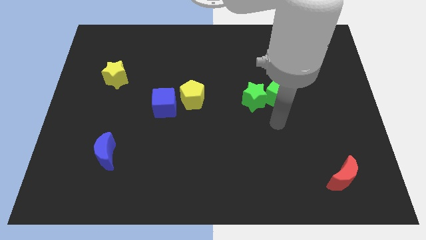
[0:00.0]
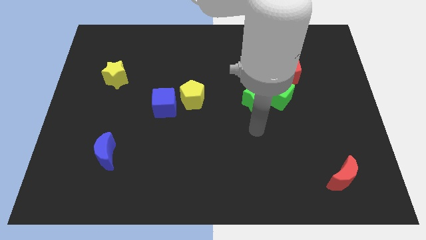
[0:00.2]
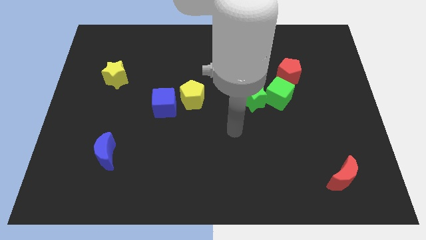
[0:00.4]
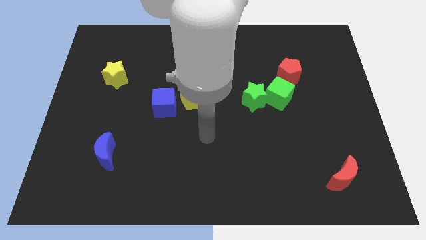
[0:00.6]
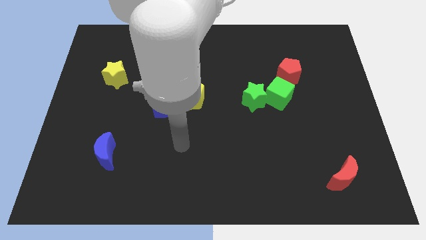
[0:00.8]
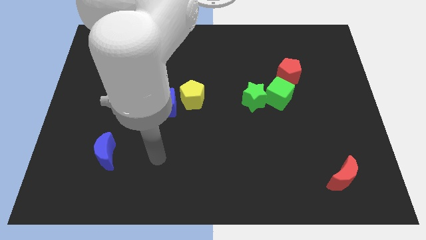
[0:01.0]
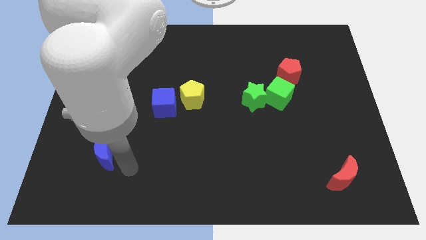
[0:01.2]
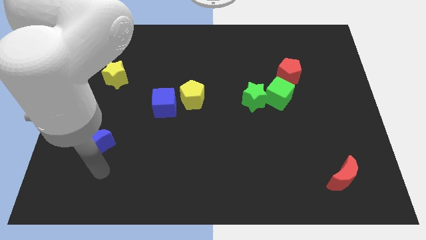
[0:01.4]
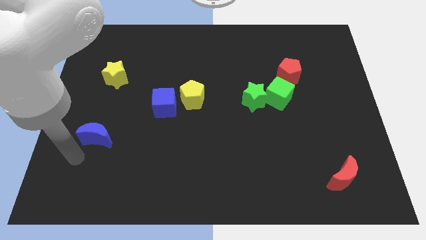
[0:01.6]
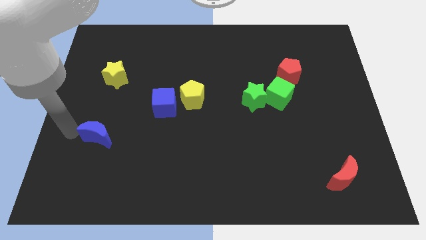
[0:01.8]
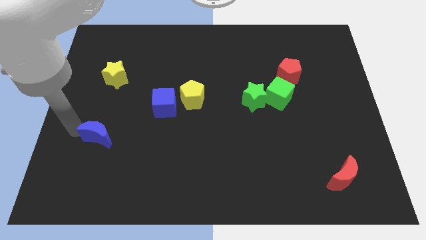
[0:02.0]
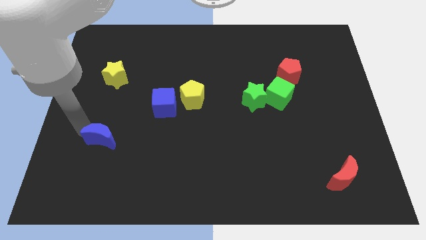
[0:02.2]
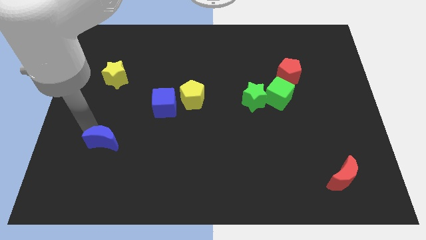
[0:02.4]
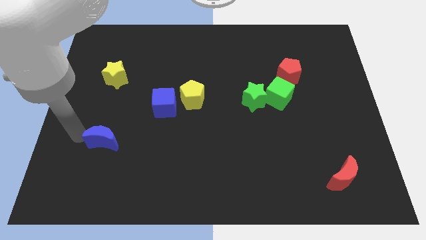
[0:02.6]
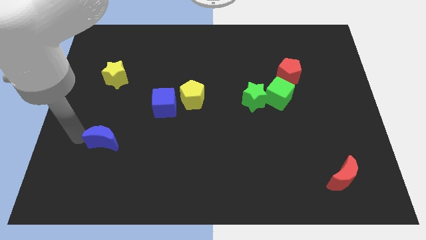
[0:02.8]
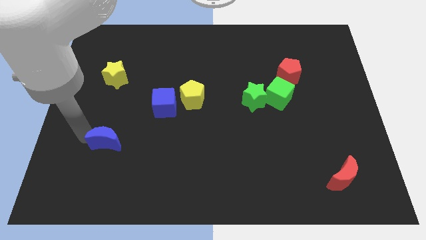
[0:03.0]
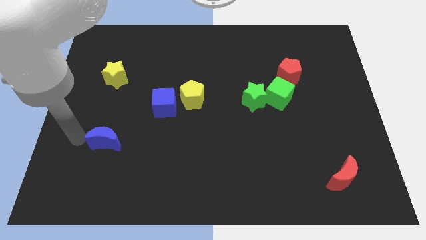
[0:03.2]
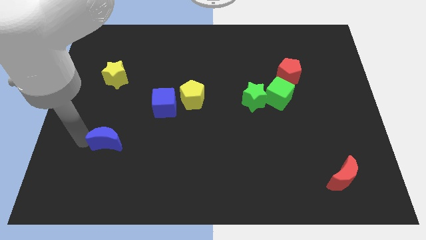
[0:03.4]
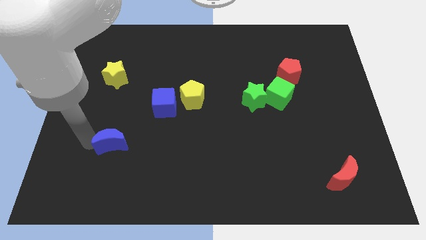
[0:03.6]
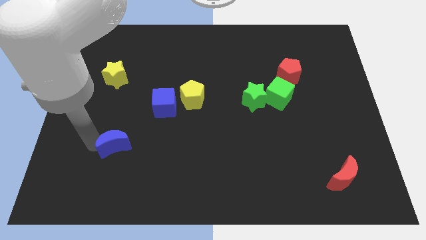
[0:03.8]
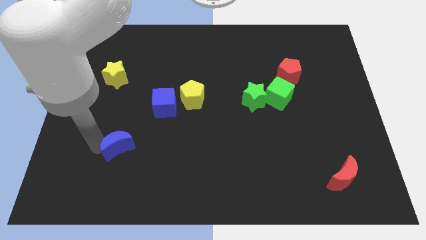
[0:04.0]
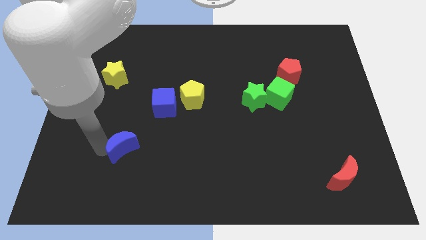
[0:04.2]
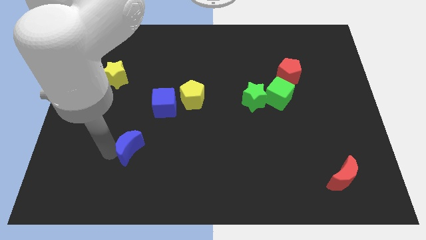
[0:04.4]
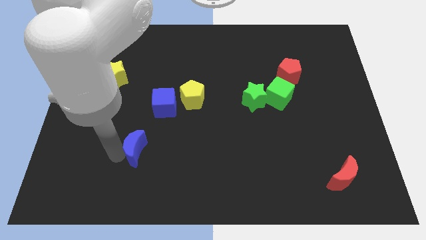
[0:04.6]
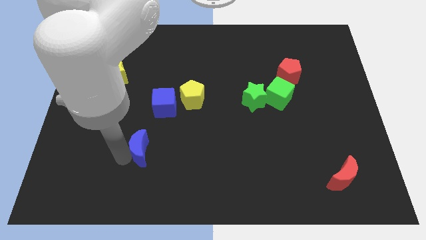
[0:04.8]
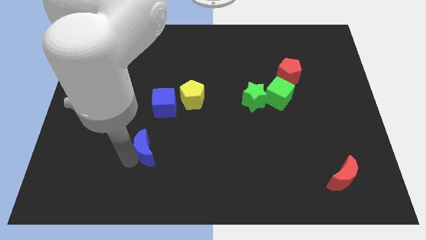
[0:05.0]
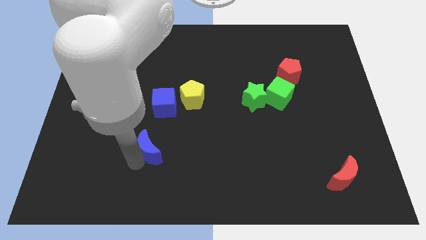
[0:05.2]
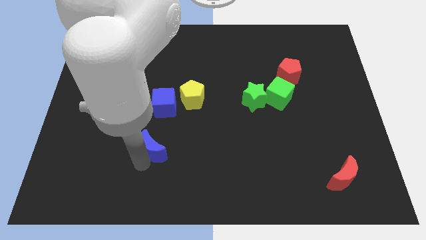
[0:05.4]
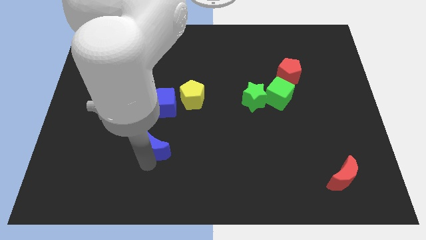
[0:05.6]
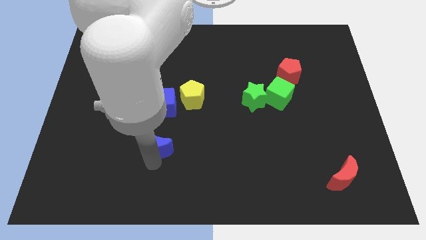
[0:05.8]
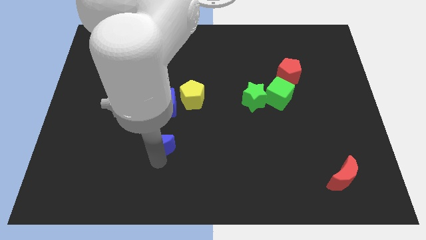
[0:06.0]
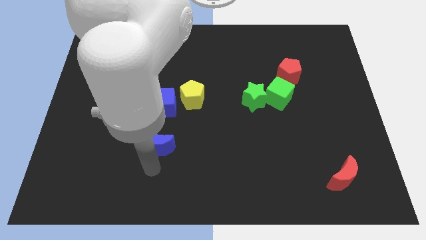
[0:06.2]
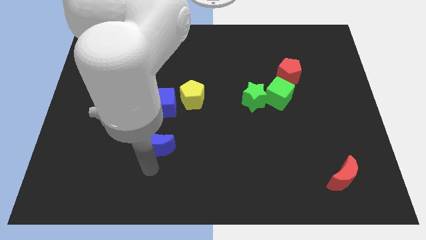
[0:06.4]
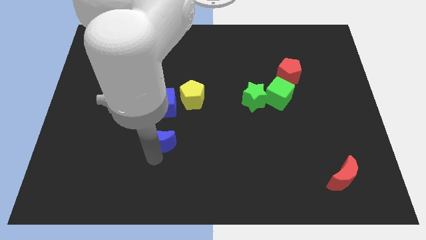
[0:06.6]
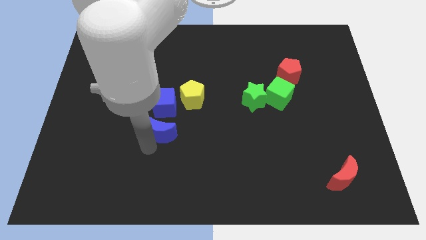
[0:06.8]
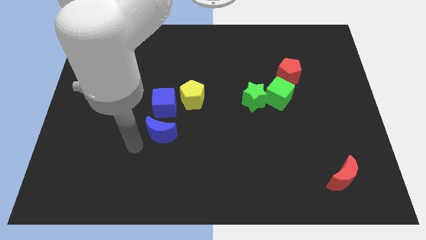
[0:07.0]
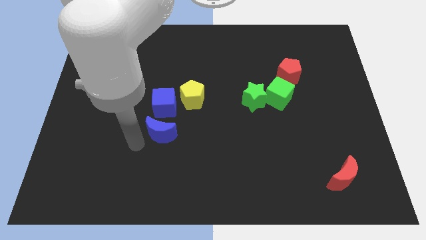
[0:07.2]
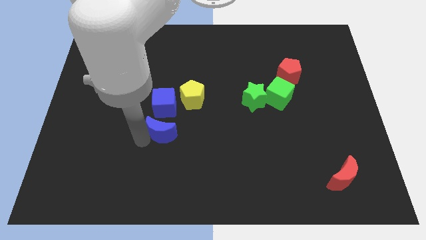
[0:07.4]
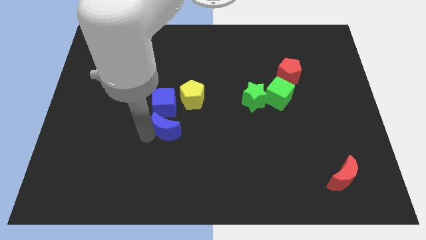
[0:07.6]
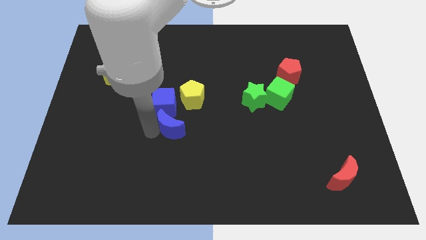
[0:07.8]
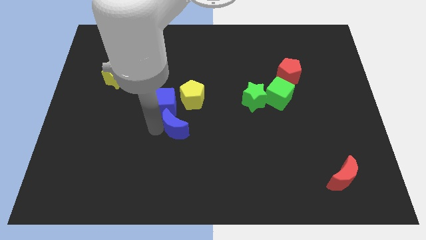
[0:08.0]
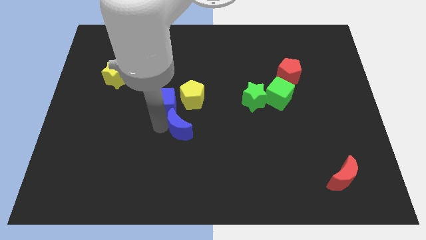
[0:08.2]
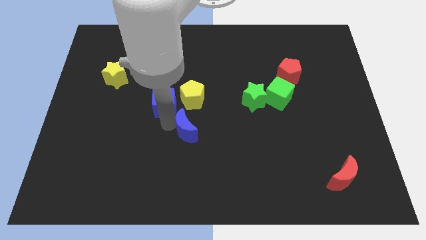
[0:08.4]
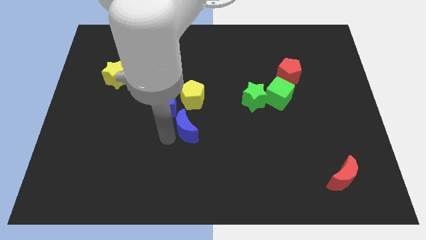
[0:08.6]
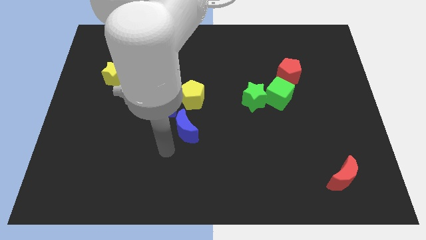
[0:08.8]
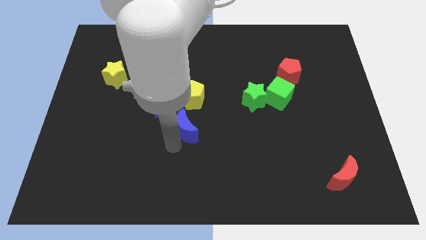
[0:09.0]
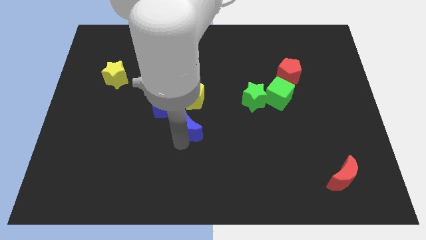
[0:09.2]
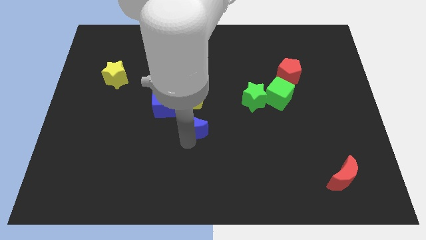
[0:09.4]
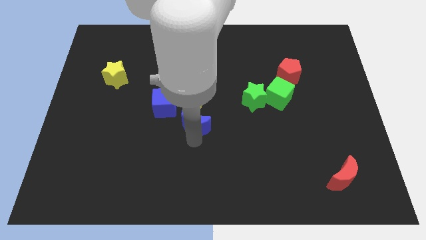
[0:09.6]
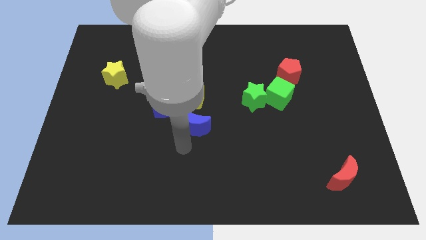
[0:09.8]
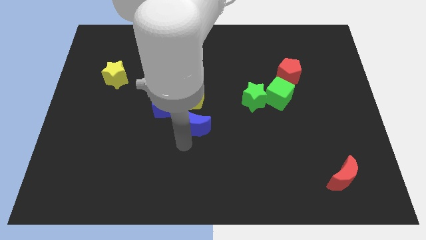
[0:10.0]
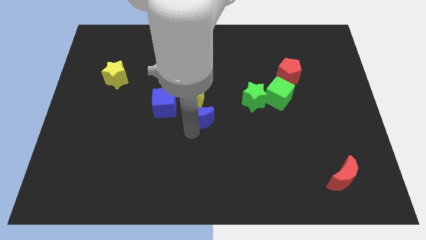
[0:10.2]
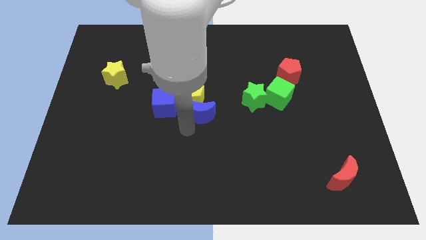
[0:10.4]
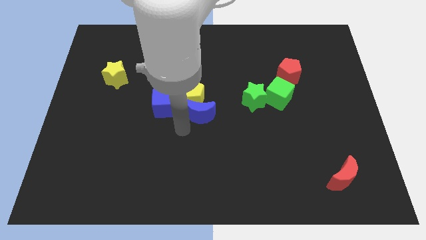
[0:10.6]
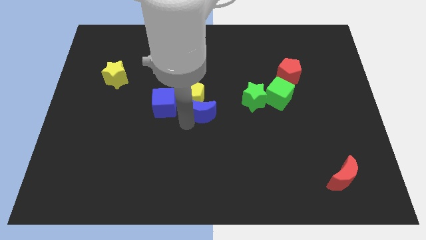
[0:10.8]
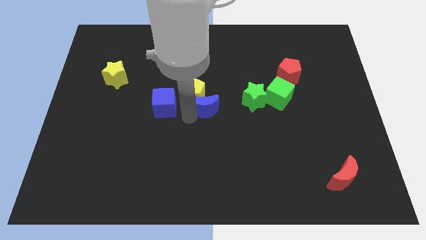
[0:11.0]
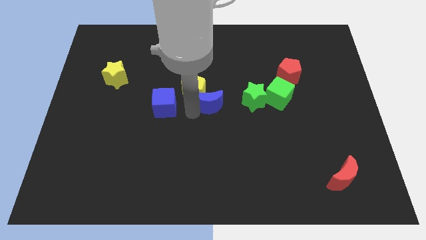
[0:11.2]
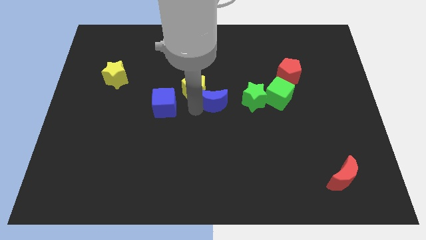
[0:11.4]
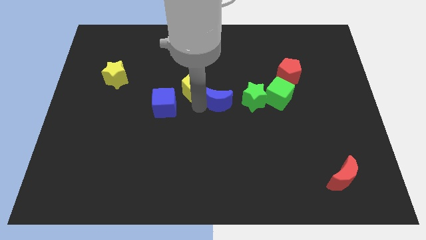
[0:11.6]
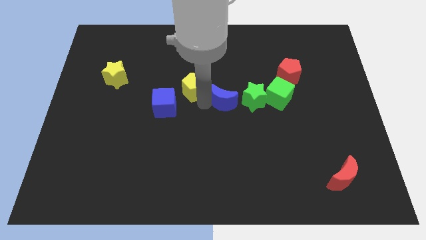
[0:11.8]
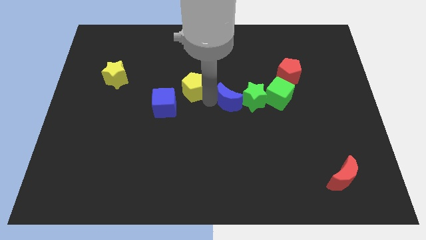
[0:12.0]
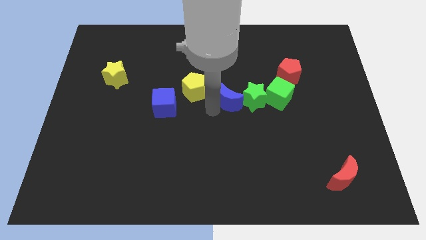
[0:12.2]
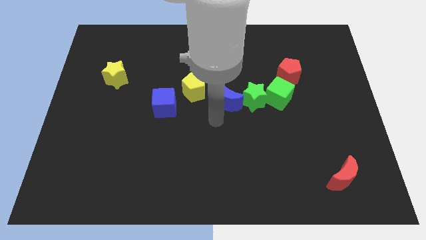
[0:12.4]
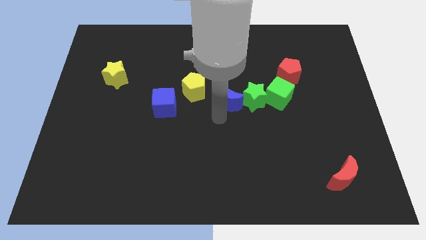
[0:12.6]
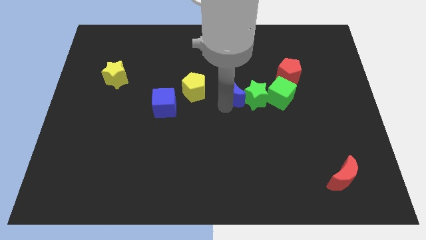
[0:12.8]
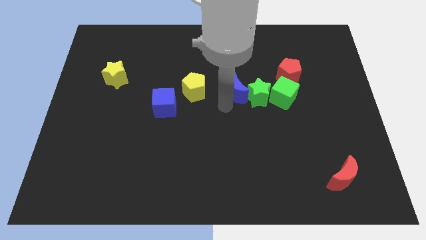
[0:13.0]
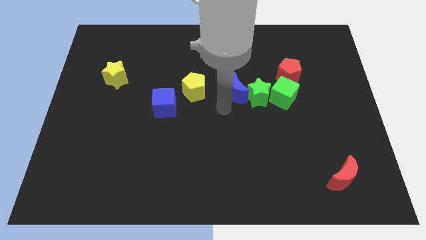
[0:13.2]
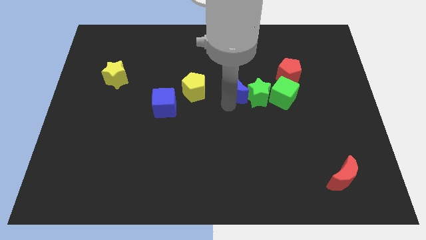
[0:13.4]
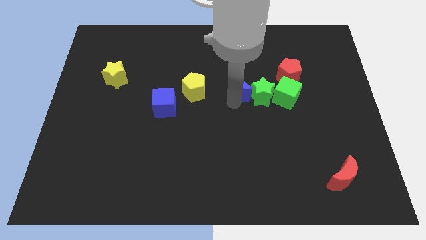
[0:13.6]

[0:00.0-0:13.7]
push the blue moon just left of the red pentagon
